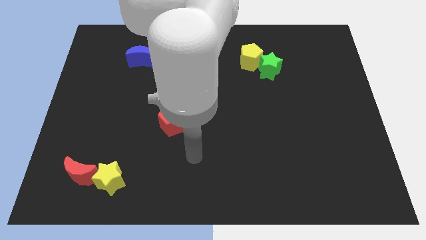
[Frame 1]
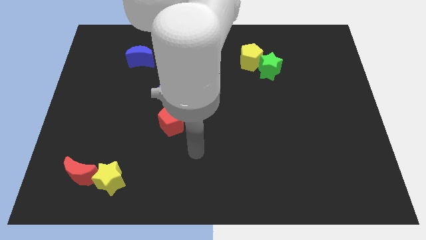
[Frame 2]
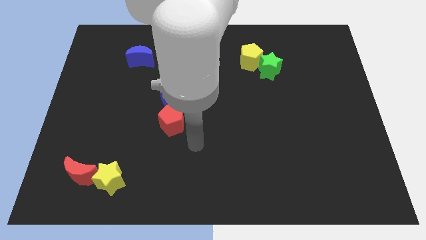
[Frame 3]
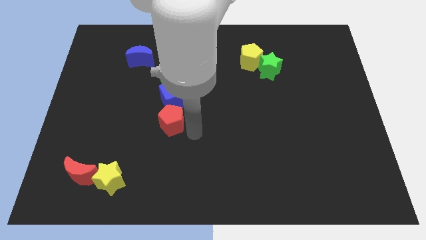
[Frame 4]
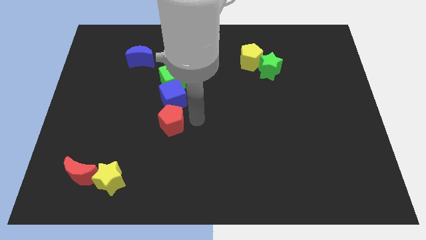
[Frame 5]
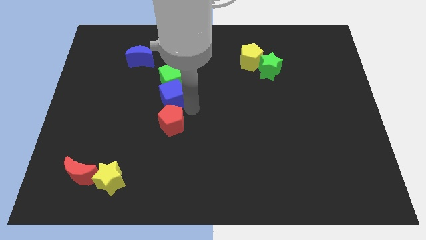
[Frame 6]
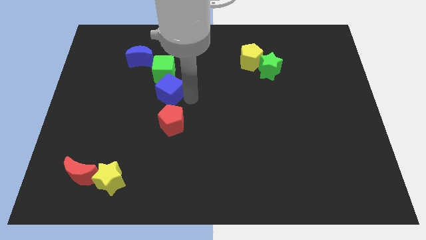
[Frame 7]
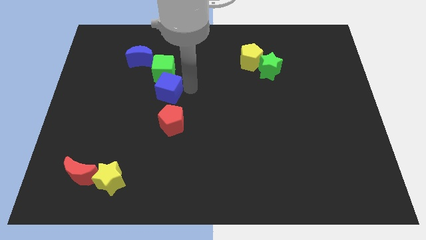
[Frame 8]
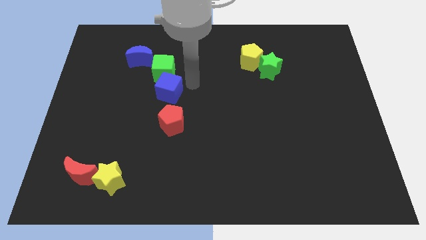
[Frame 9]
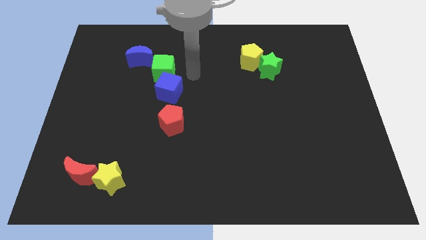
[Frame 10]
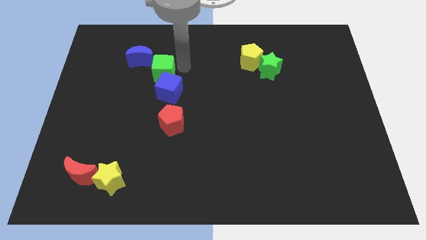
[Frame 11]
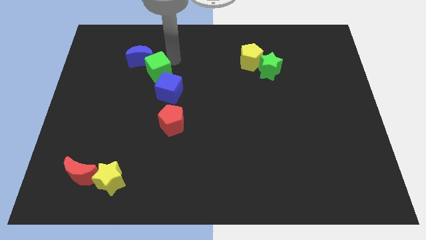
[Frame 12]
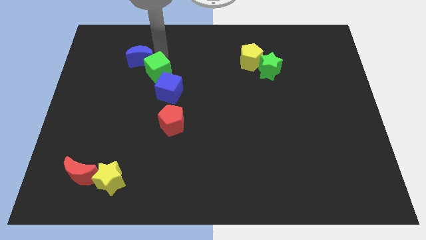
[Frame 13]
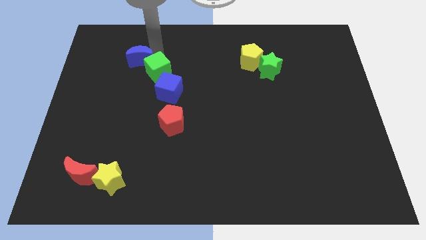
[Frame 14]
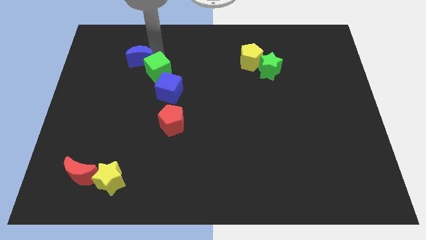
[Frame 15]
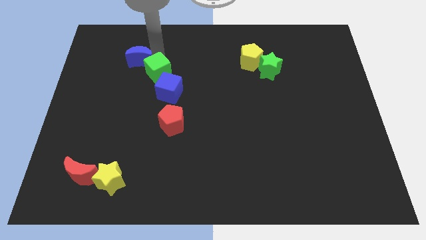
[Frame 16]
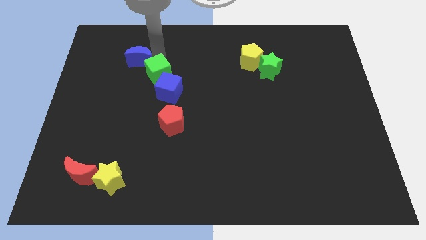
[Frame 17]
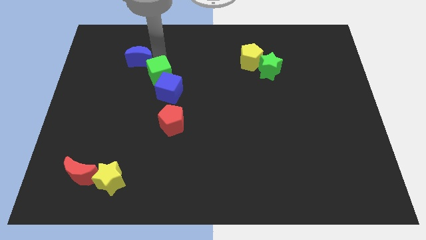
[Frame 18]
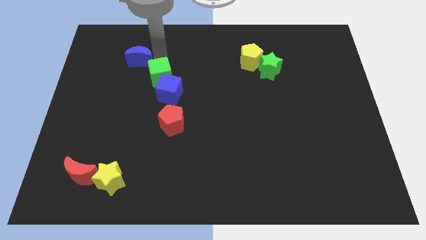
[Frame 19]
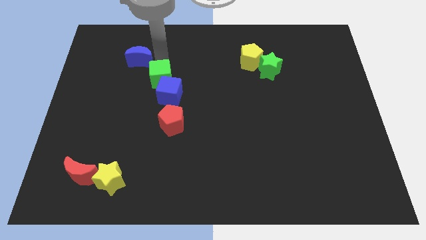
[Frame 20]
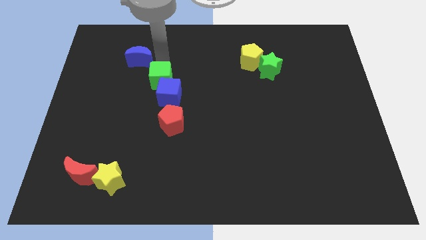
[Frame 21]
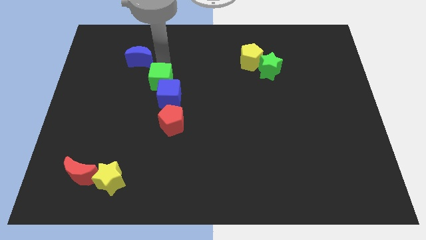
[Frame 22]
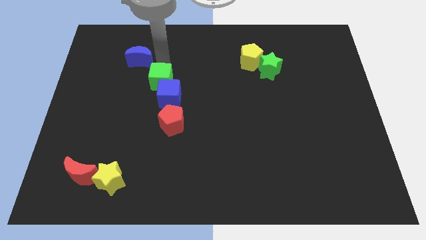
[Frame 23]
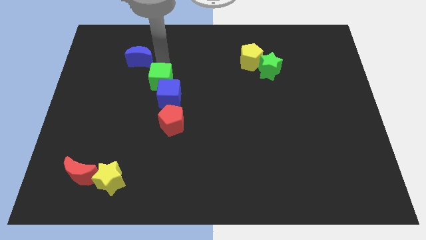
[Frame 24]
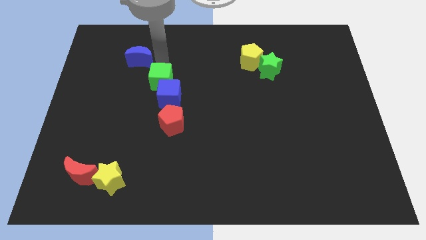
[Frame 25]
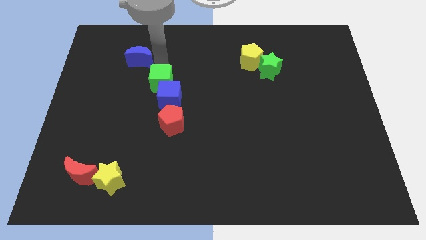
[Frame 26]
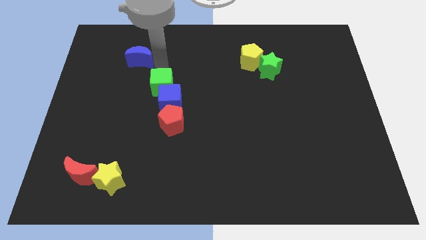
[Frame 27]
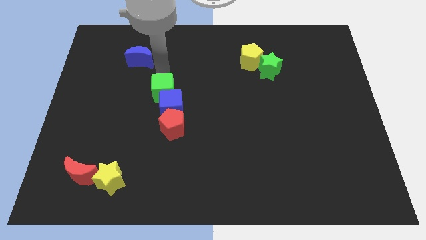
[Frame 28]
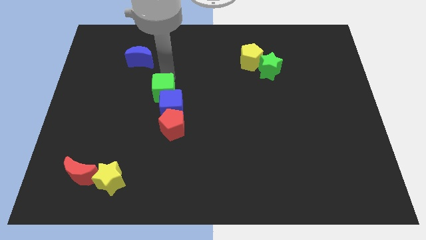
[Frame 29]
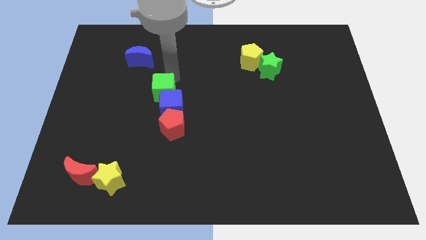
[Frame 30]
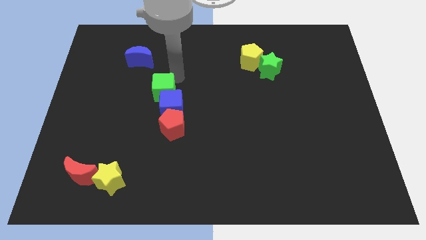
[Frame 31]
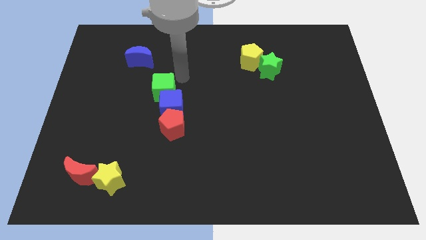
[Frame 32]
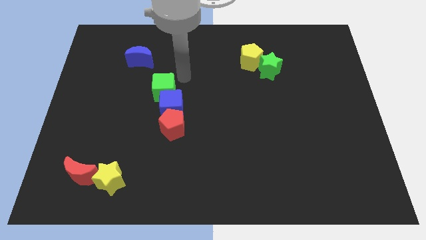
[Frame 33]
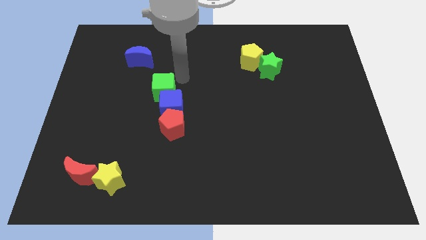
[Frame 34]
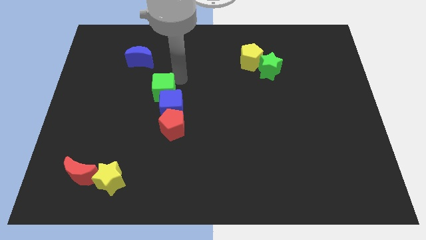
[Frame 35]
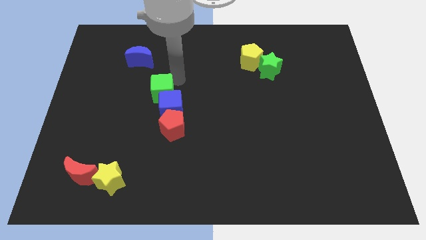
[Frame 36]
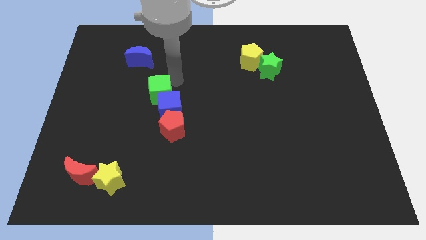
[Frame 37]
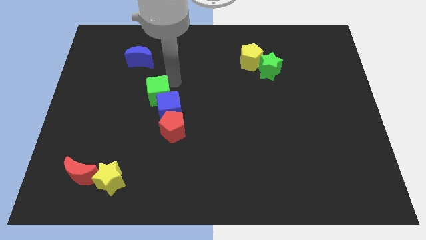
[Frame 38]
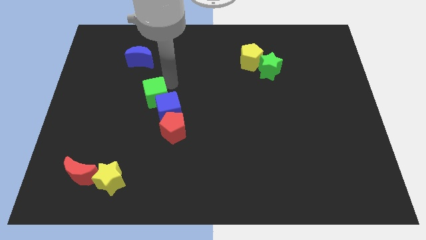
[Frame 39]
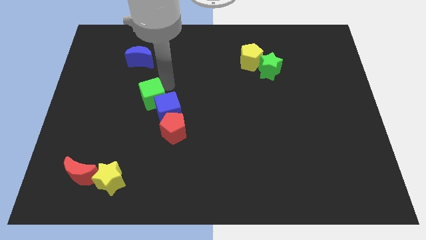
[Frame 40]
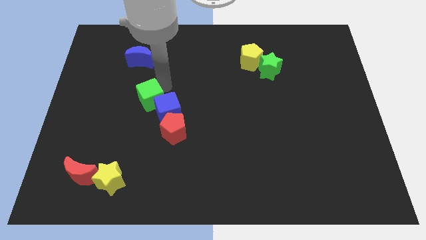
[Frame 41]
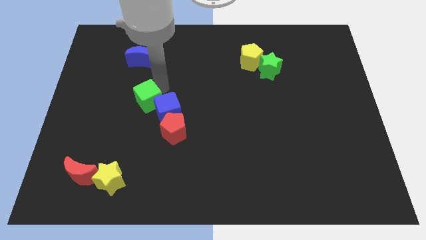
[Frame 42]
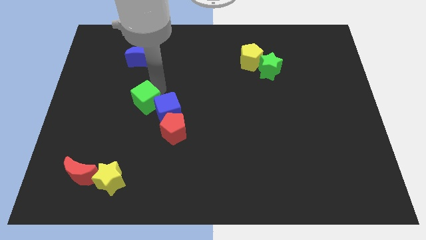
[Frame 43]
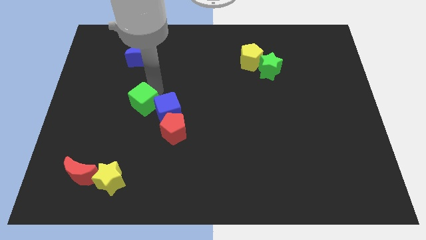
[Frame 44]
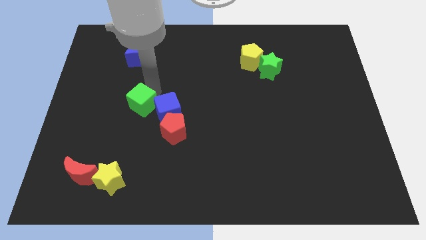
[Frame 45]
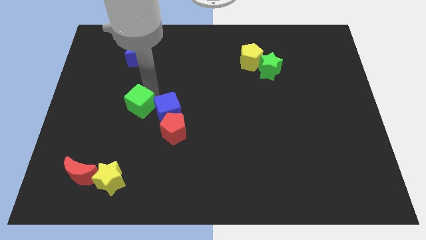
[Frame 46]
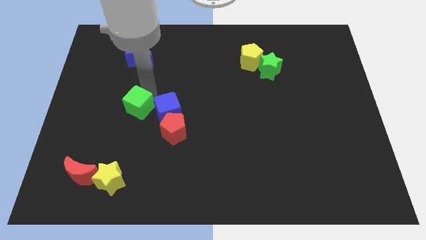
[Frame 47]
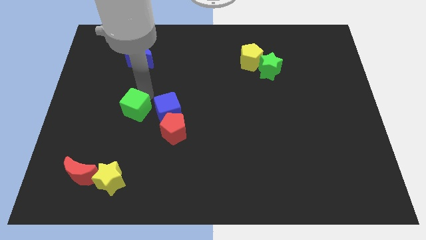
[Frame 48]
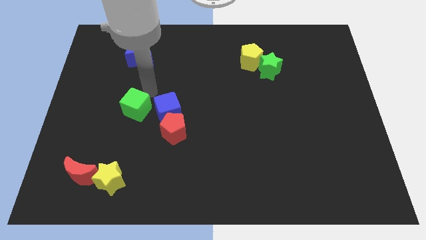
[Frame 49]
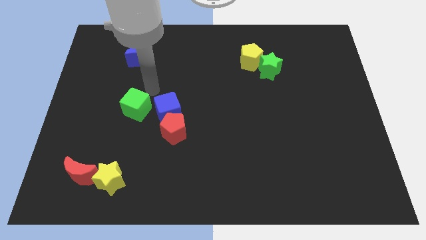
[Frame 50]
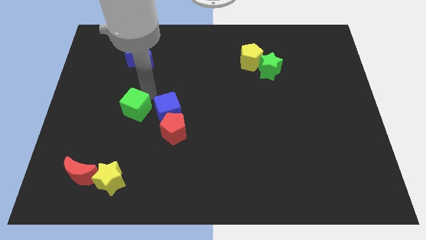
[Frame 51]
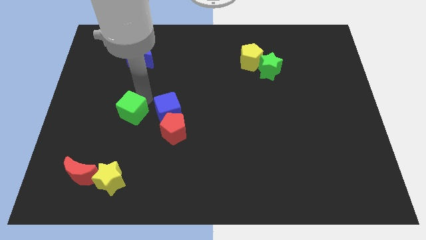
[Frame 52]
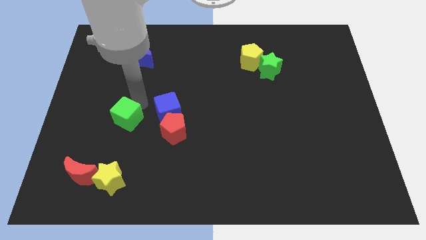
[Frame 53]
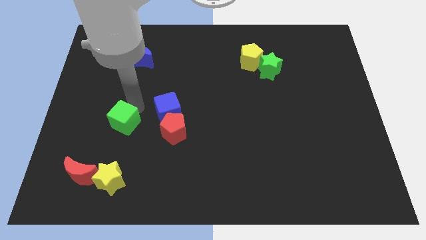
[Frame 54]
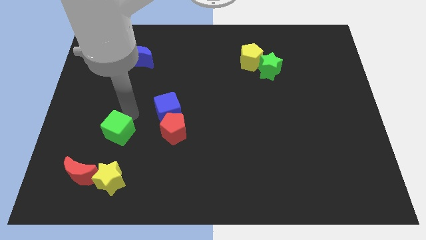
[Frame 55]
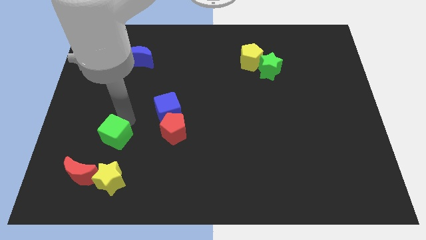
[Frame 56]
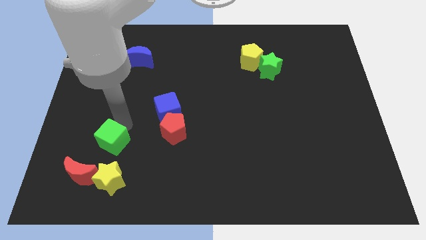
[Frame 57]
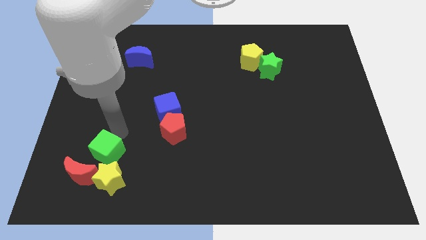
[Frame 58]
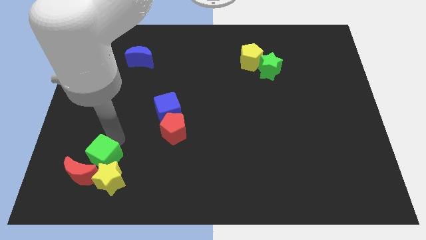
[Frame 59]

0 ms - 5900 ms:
slide the green cube close to the red moon

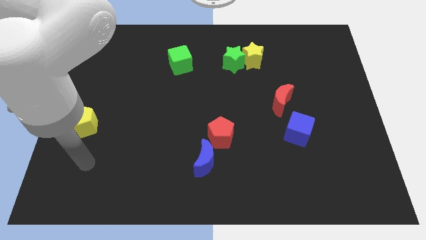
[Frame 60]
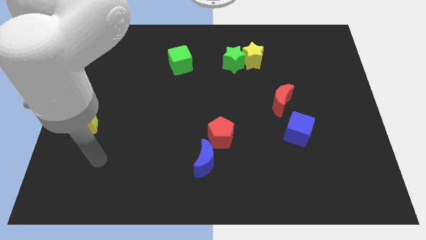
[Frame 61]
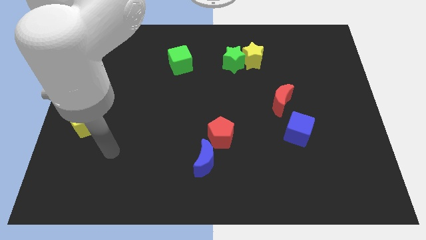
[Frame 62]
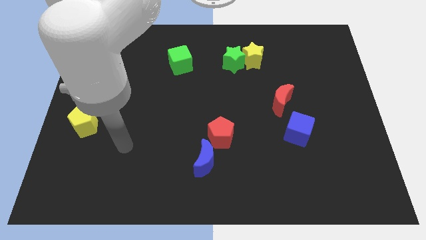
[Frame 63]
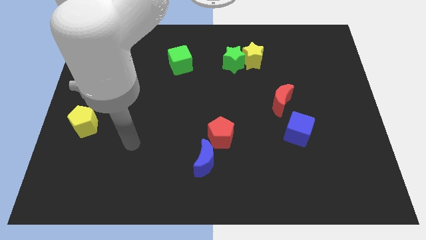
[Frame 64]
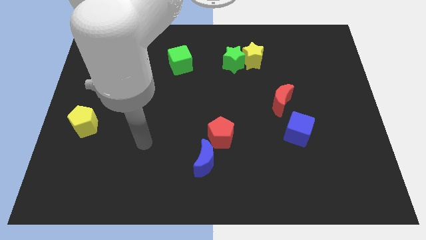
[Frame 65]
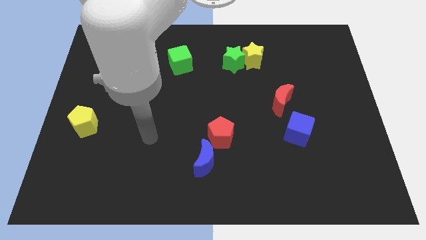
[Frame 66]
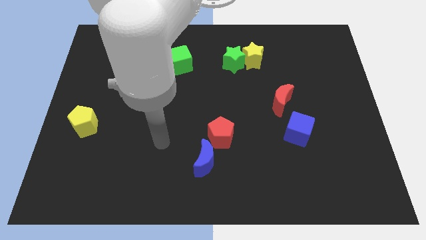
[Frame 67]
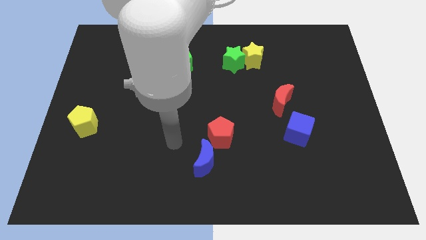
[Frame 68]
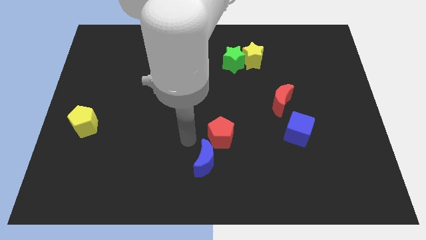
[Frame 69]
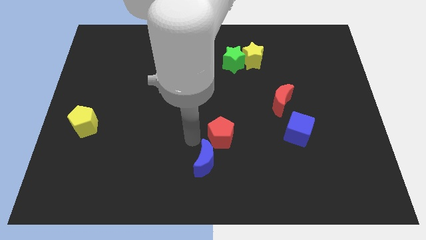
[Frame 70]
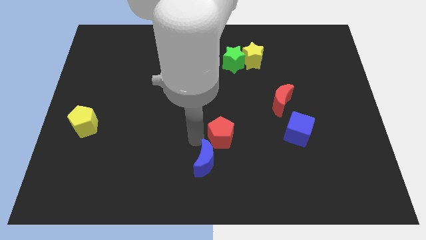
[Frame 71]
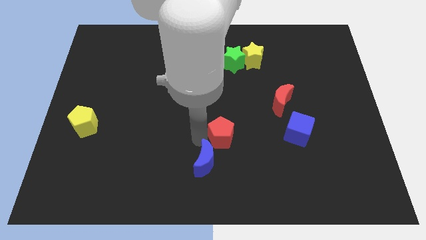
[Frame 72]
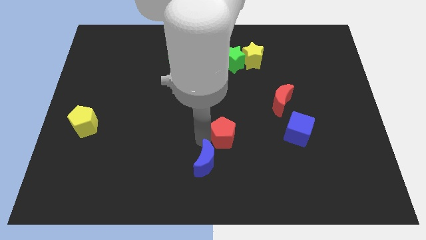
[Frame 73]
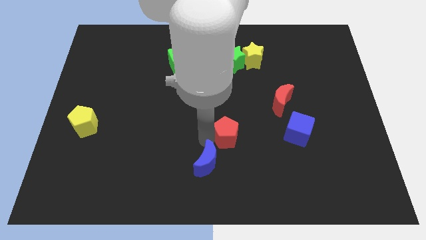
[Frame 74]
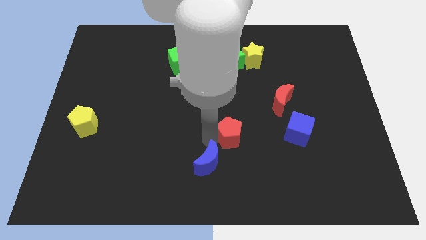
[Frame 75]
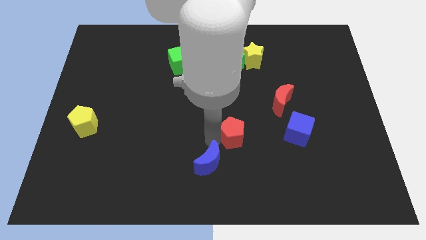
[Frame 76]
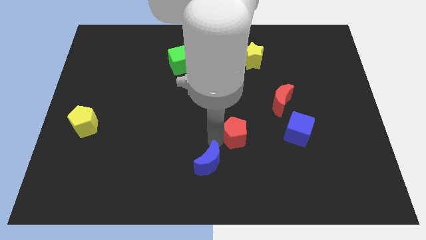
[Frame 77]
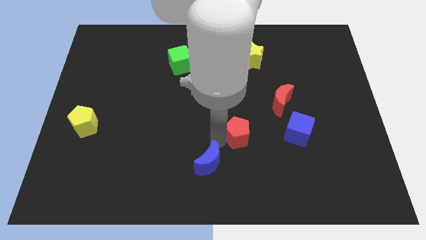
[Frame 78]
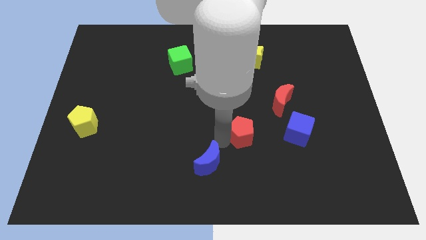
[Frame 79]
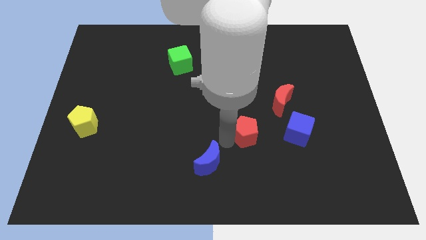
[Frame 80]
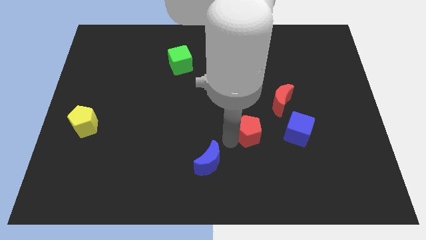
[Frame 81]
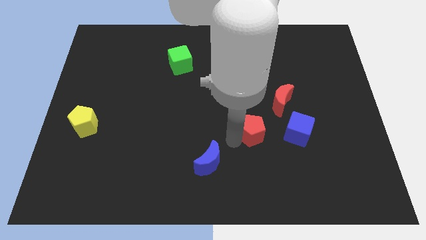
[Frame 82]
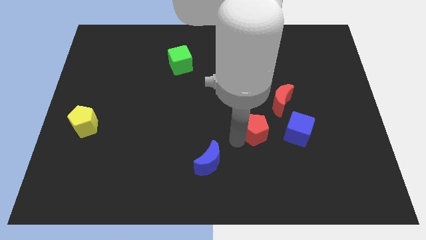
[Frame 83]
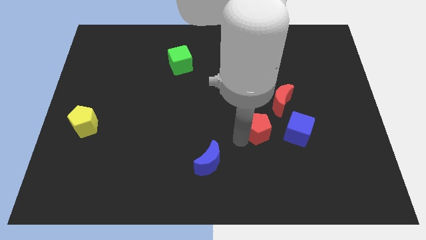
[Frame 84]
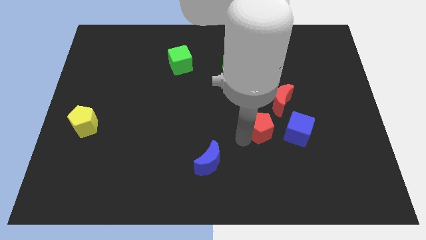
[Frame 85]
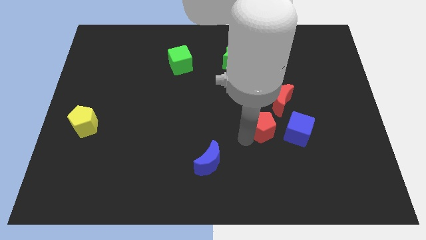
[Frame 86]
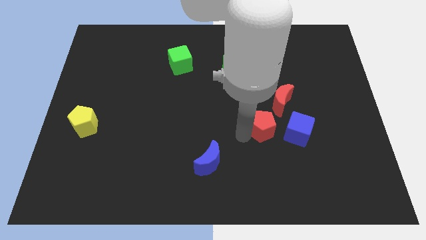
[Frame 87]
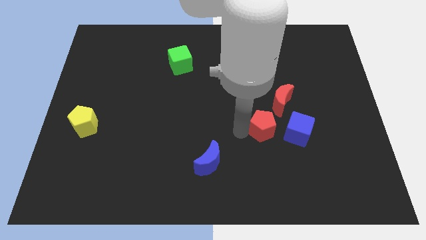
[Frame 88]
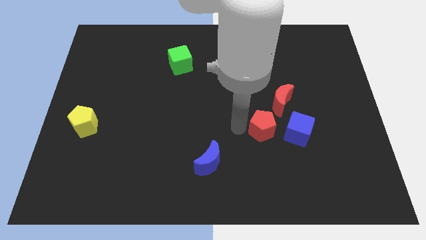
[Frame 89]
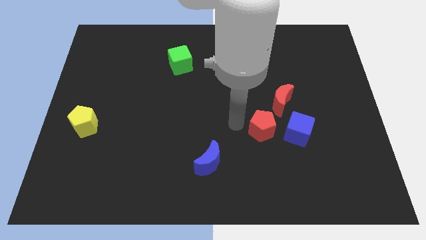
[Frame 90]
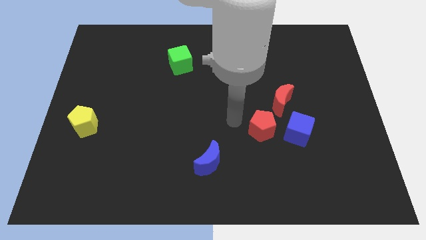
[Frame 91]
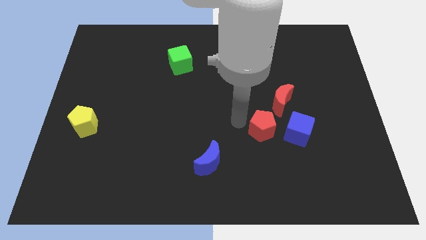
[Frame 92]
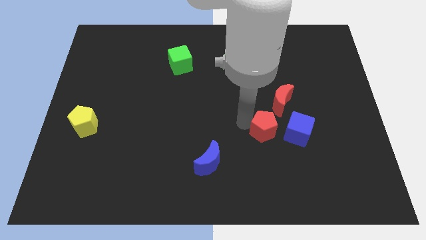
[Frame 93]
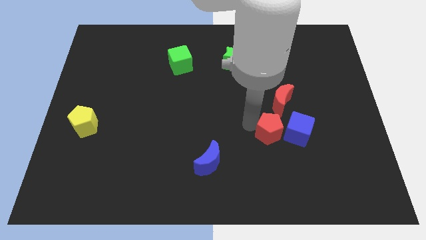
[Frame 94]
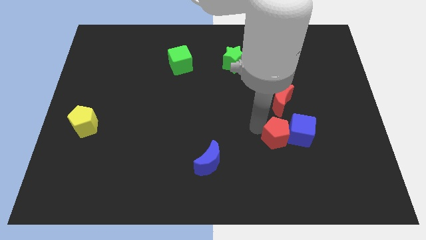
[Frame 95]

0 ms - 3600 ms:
move the red pentagon close to the blue cube
